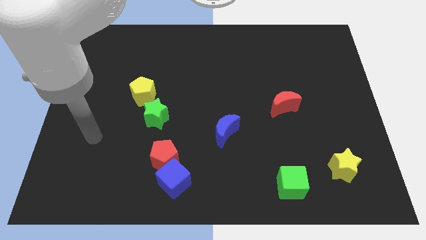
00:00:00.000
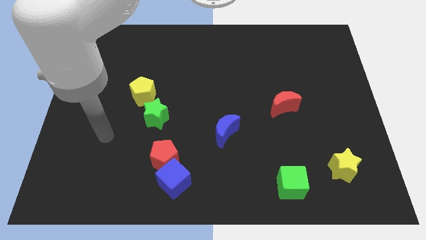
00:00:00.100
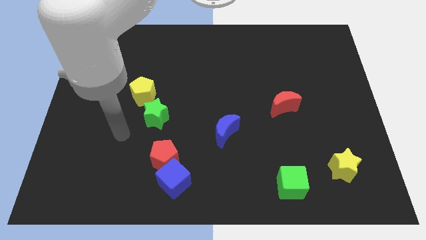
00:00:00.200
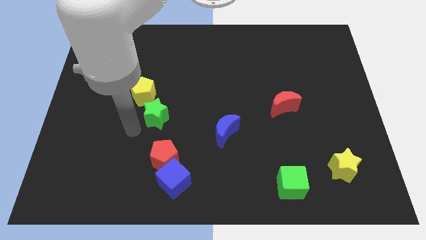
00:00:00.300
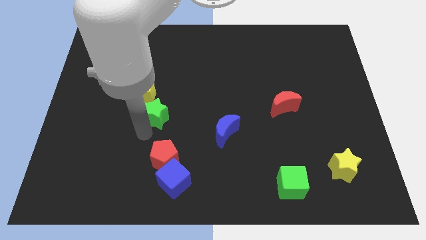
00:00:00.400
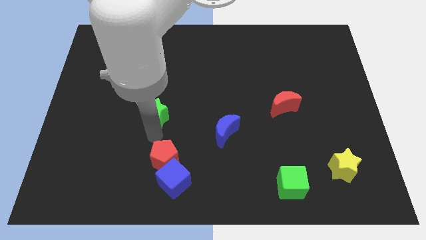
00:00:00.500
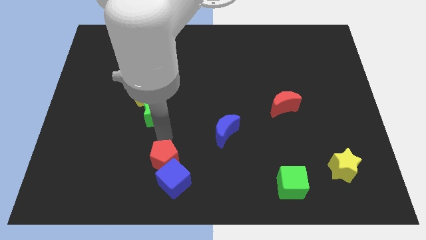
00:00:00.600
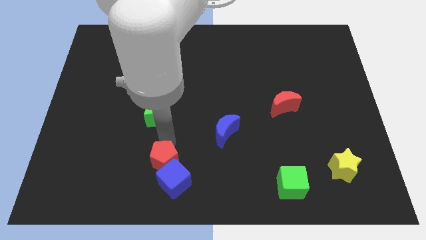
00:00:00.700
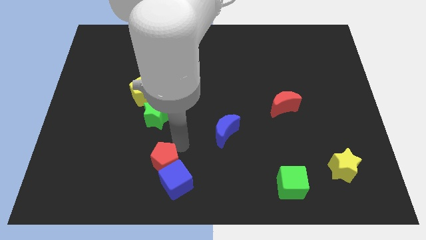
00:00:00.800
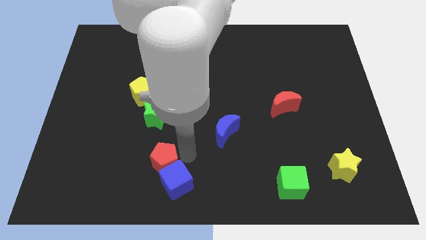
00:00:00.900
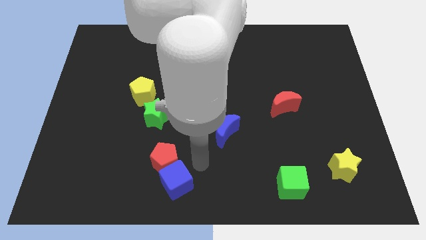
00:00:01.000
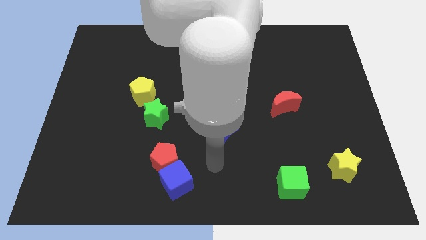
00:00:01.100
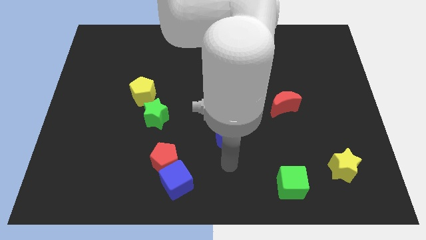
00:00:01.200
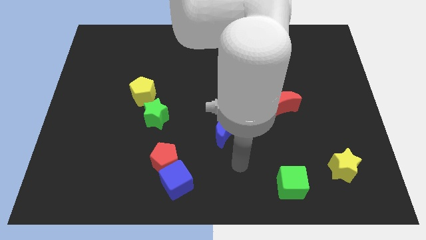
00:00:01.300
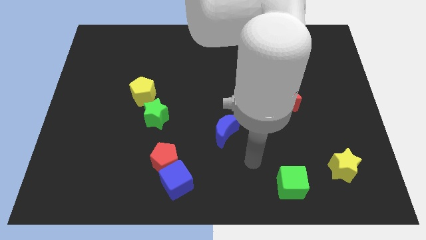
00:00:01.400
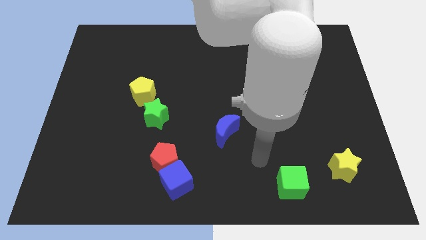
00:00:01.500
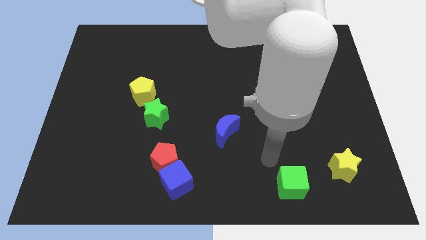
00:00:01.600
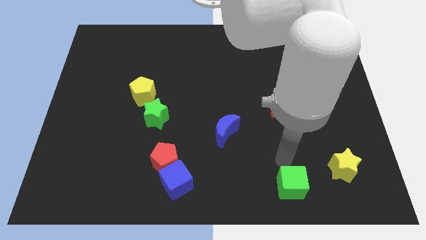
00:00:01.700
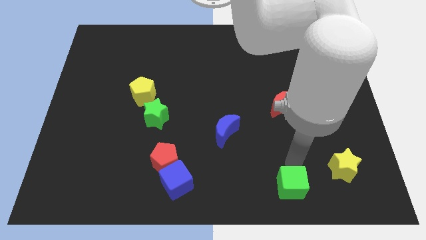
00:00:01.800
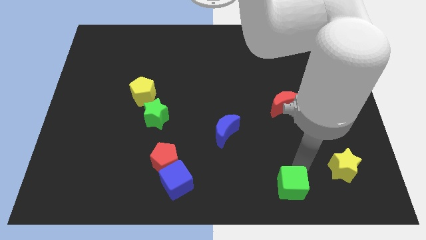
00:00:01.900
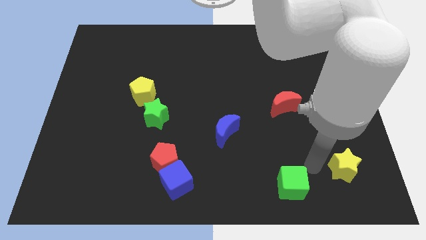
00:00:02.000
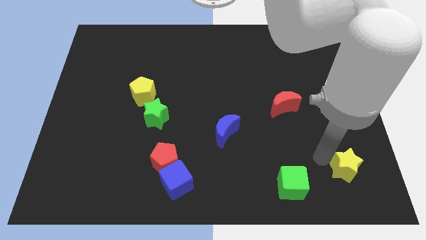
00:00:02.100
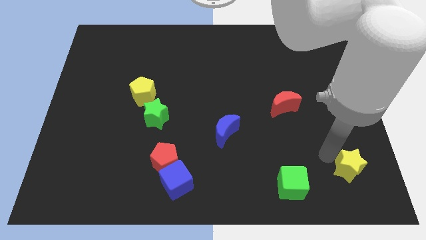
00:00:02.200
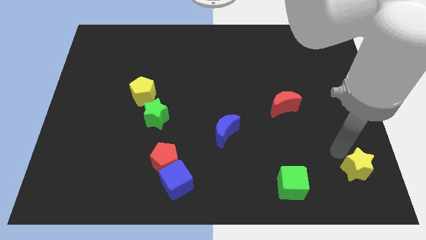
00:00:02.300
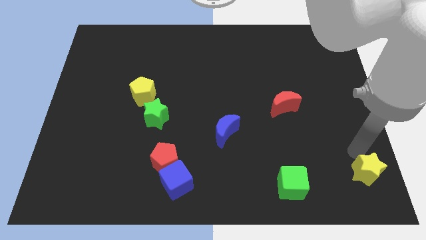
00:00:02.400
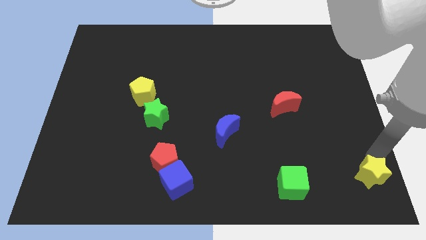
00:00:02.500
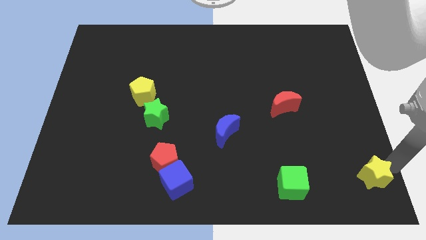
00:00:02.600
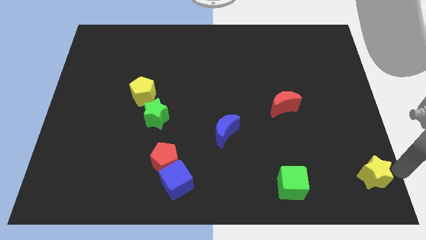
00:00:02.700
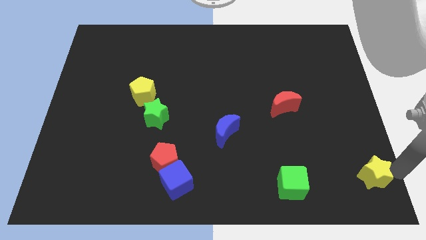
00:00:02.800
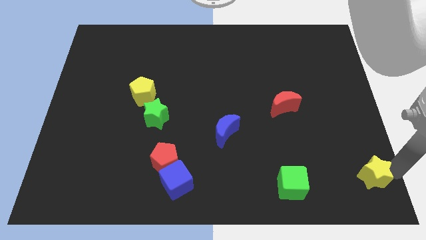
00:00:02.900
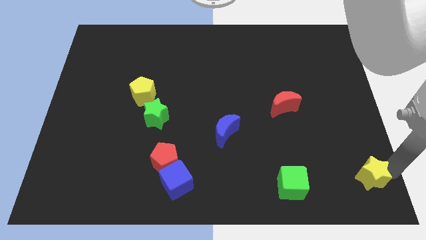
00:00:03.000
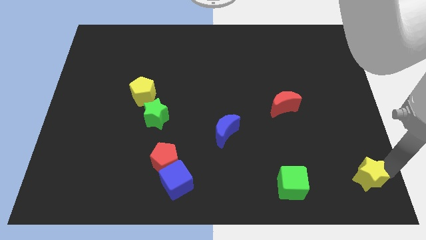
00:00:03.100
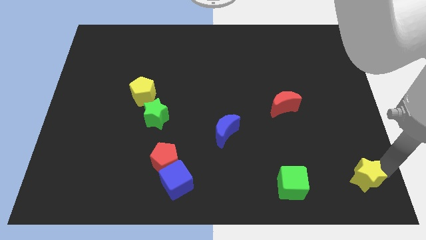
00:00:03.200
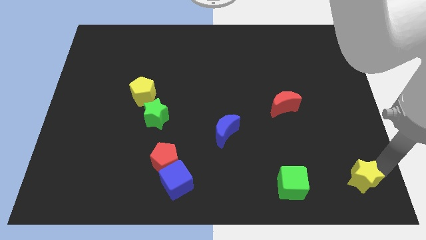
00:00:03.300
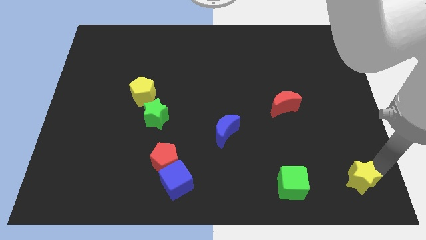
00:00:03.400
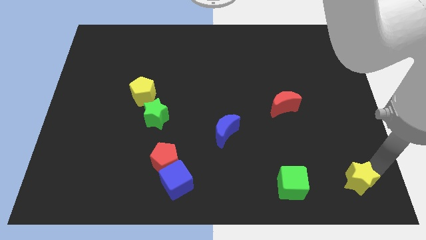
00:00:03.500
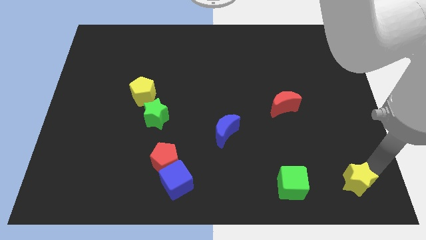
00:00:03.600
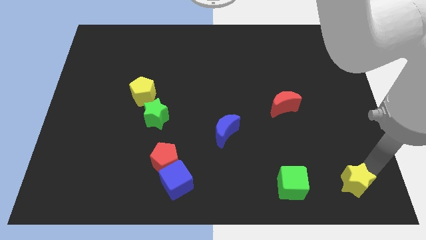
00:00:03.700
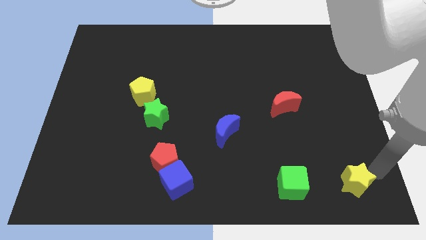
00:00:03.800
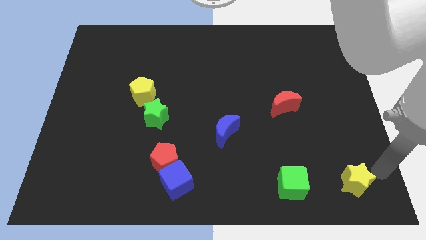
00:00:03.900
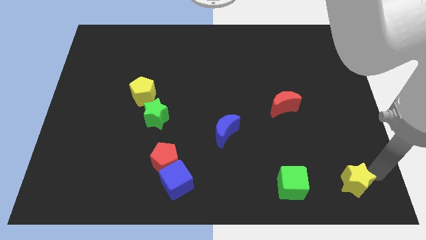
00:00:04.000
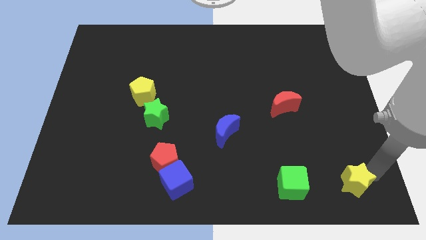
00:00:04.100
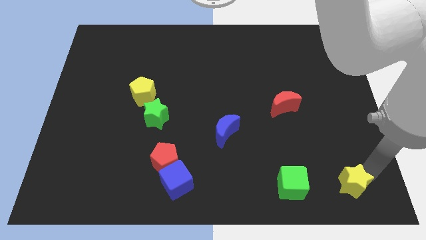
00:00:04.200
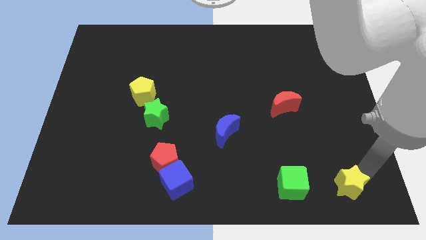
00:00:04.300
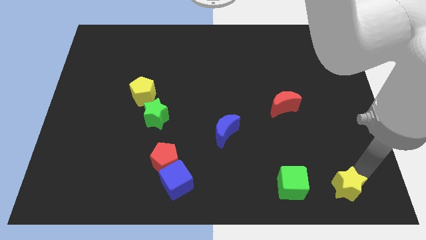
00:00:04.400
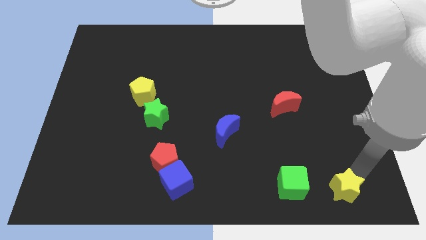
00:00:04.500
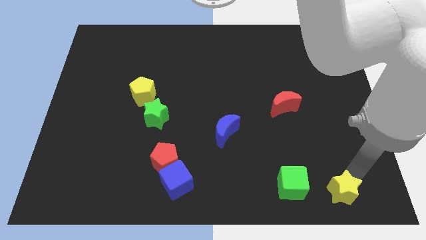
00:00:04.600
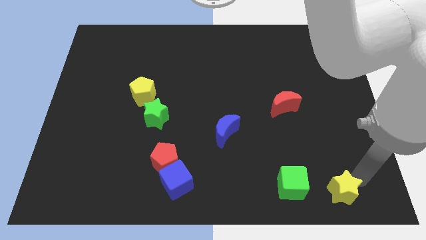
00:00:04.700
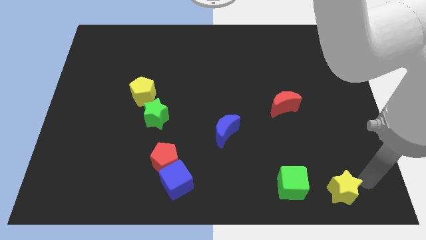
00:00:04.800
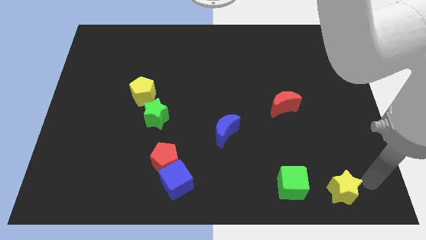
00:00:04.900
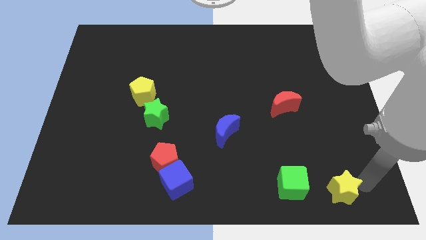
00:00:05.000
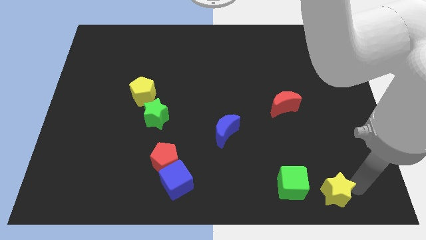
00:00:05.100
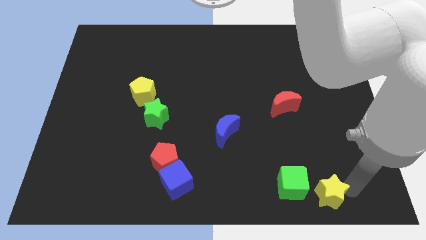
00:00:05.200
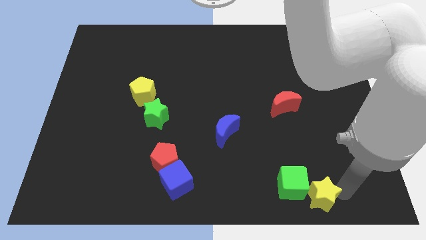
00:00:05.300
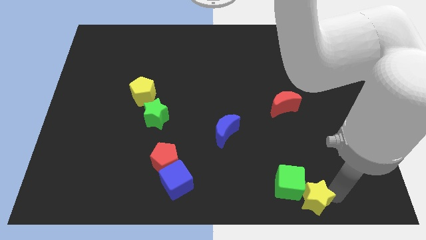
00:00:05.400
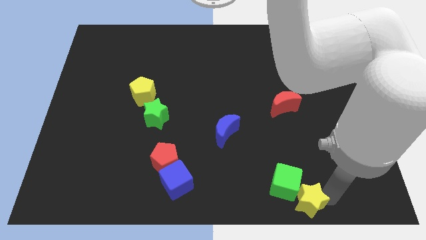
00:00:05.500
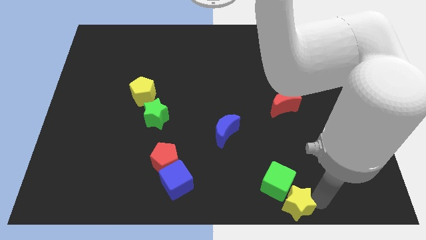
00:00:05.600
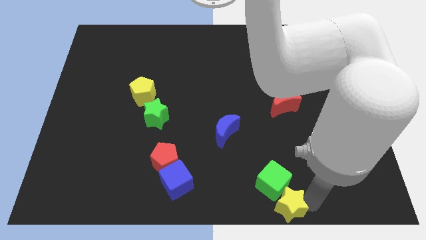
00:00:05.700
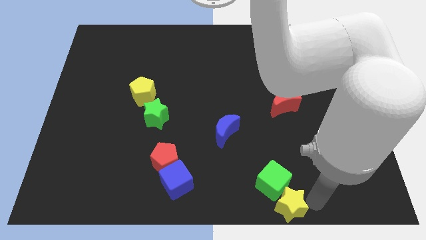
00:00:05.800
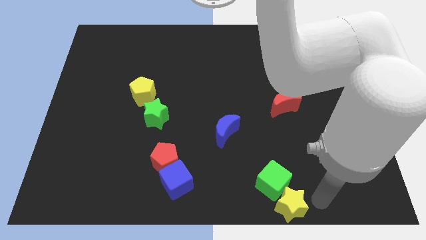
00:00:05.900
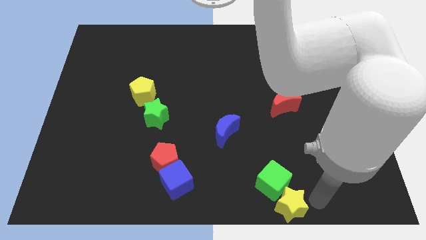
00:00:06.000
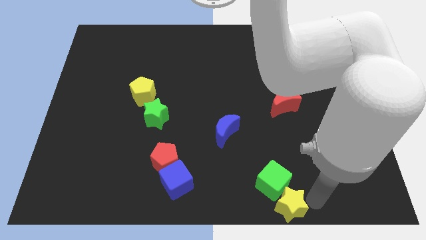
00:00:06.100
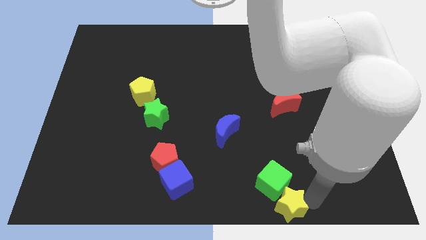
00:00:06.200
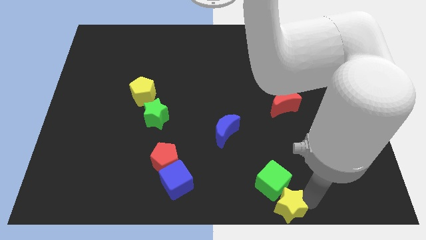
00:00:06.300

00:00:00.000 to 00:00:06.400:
slide the yellow star to the bottom
